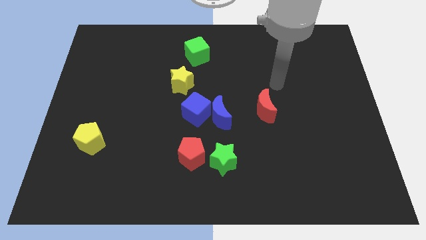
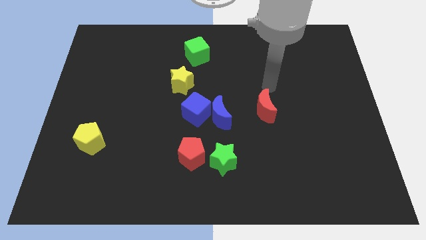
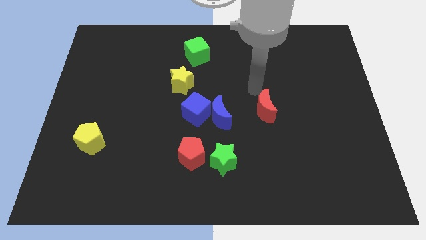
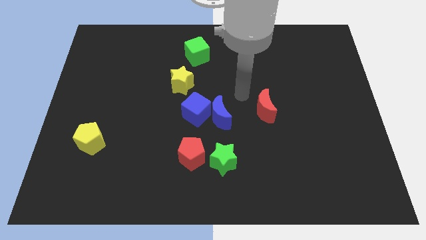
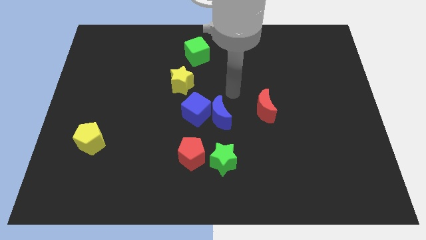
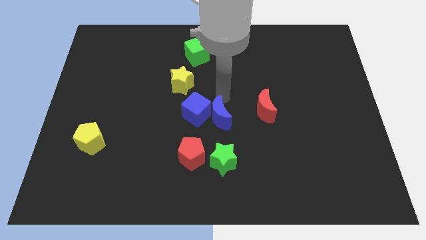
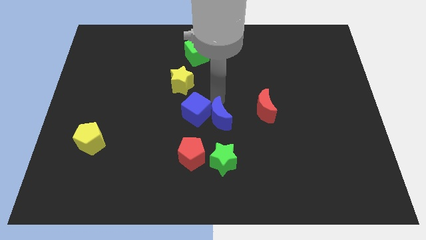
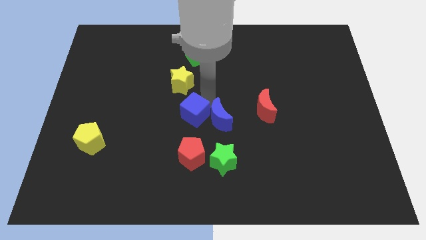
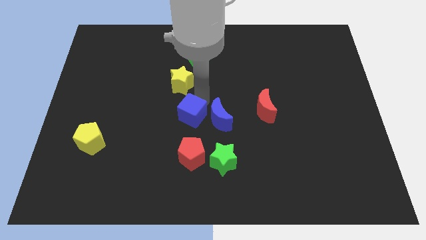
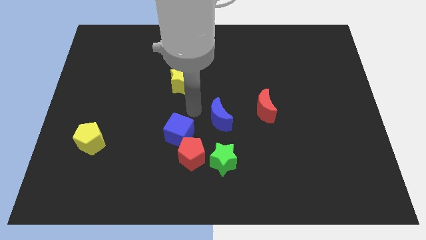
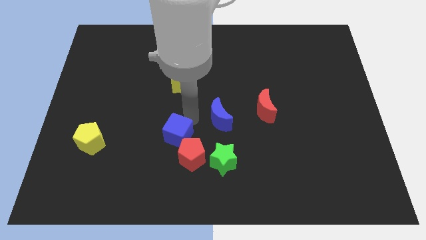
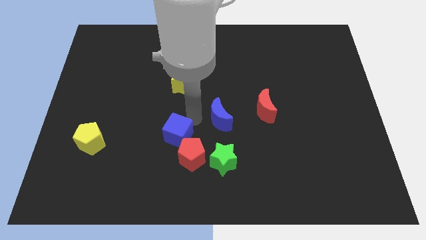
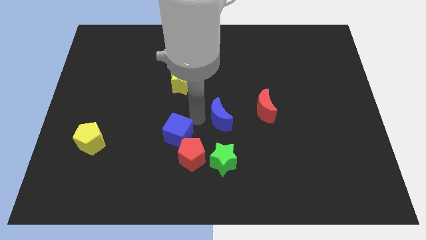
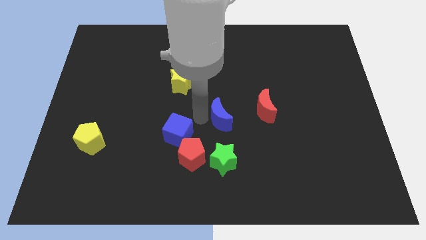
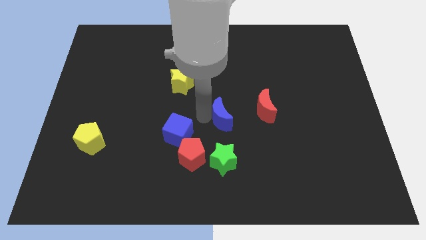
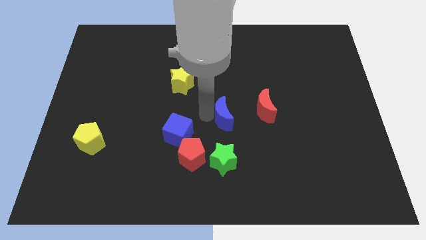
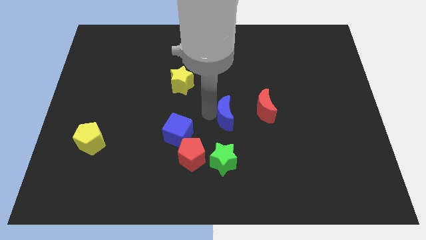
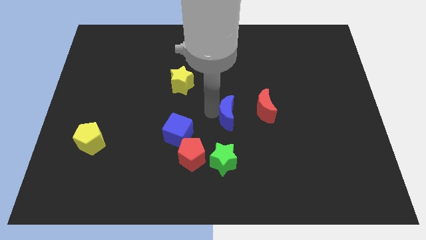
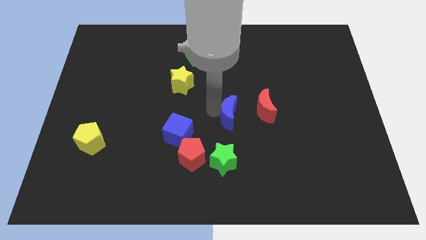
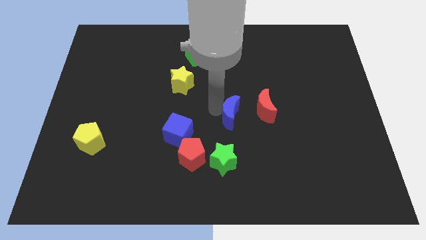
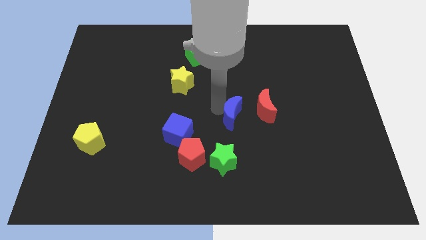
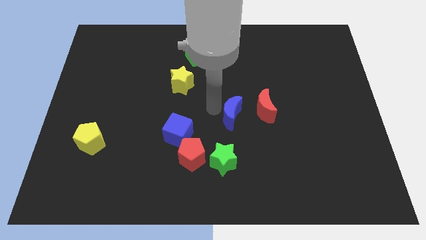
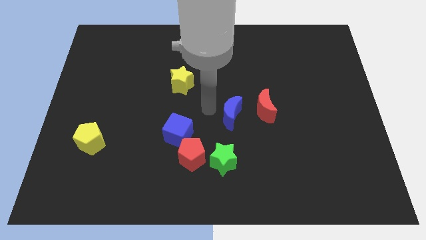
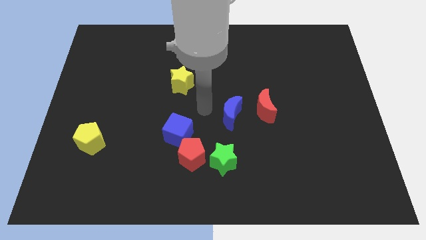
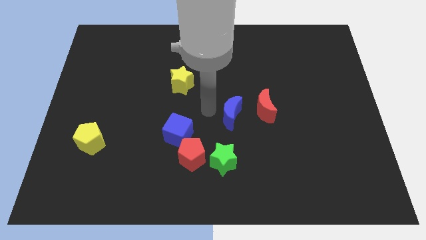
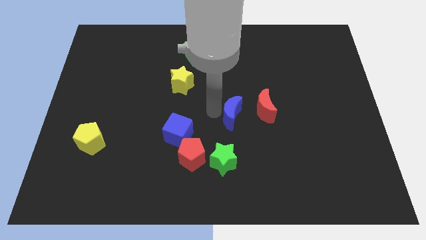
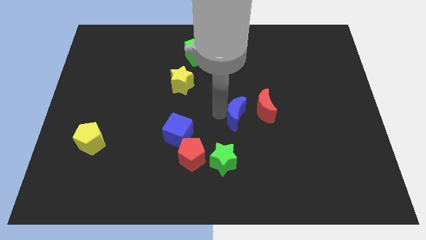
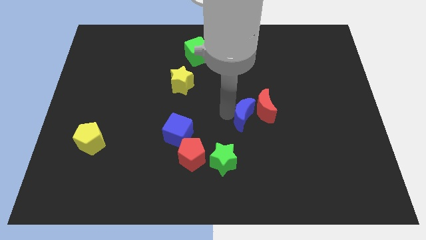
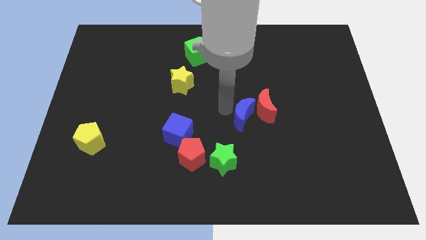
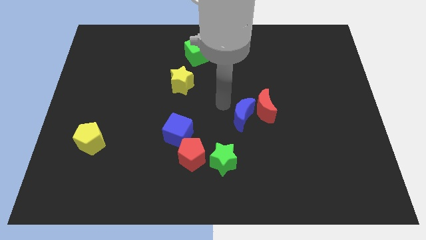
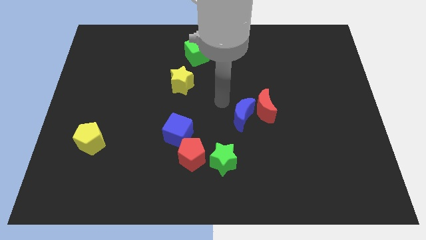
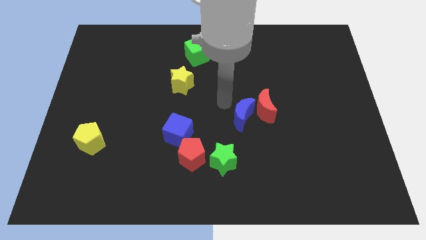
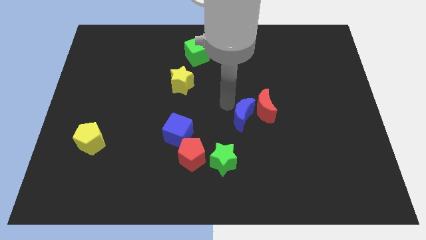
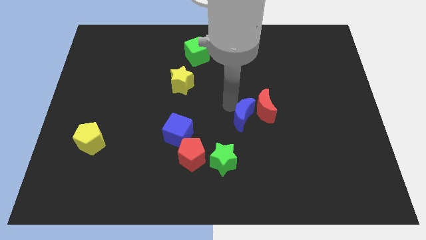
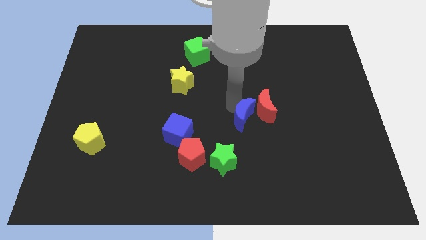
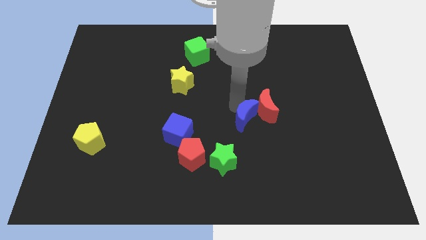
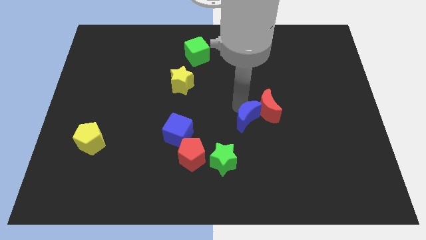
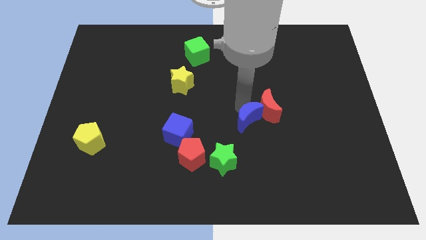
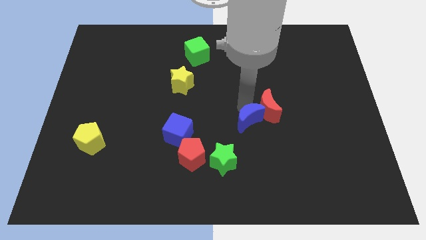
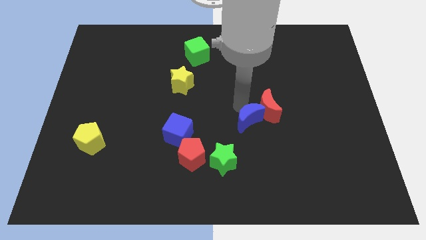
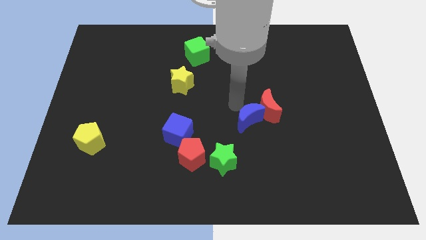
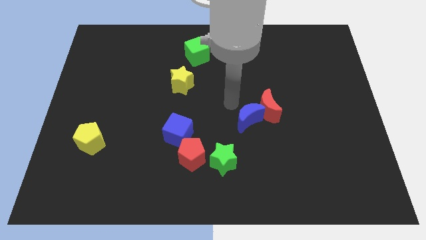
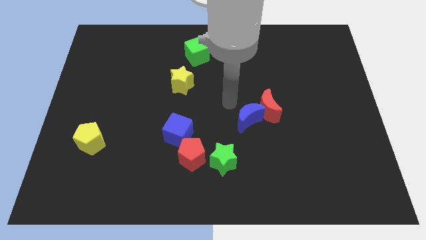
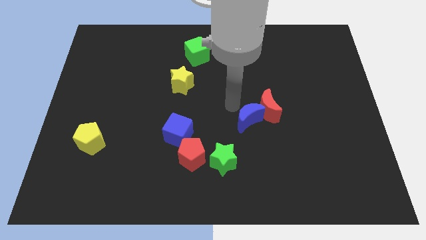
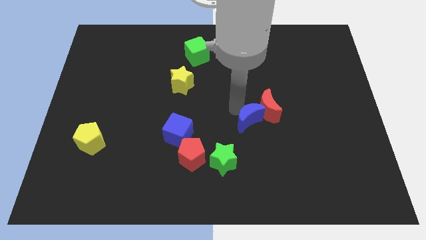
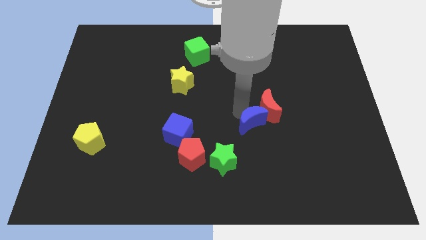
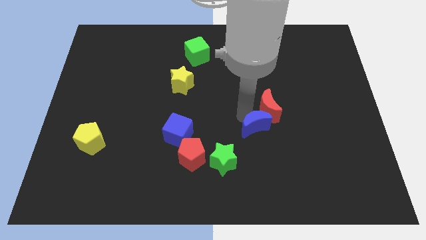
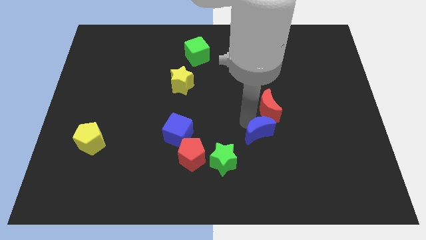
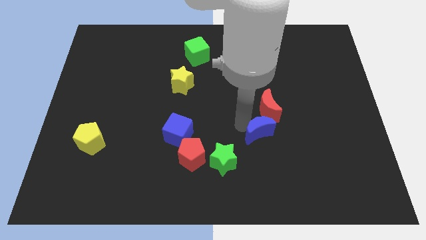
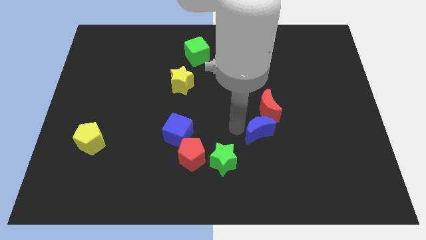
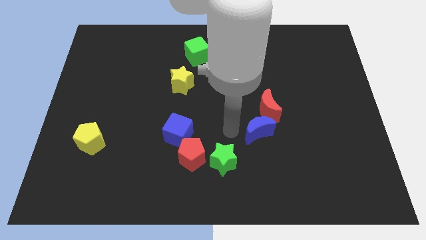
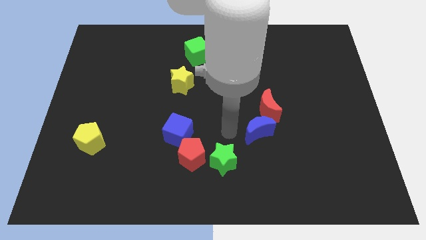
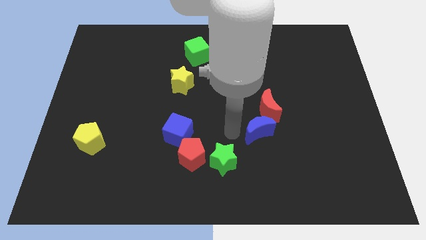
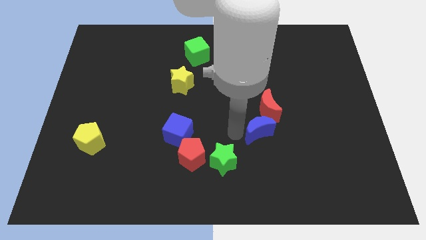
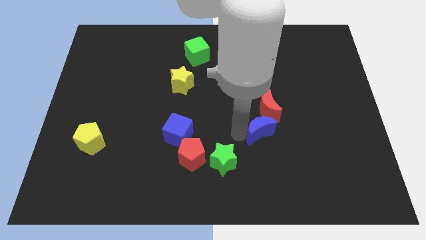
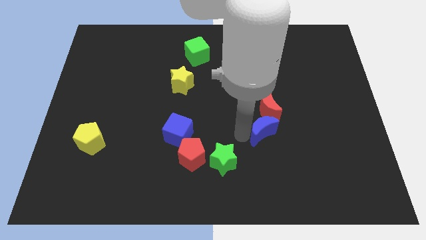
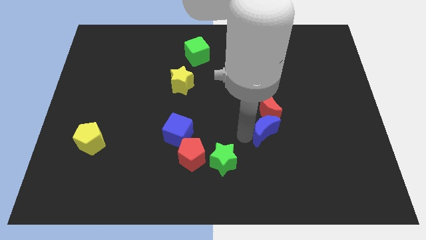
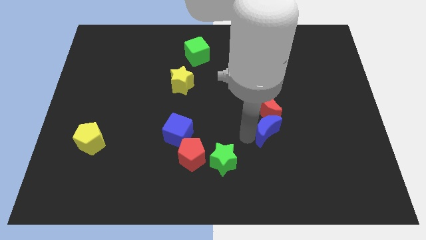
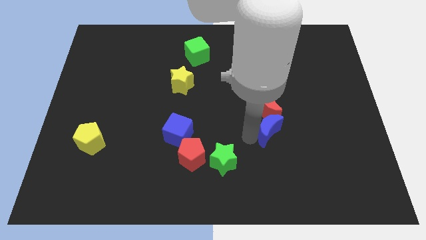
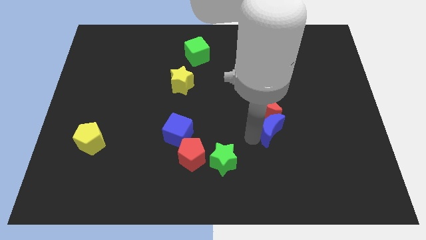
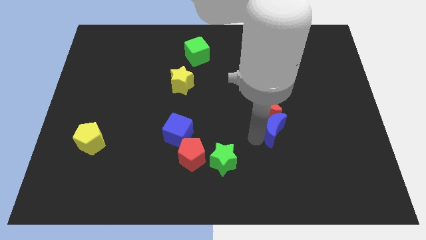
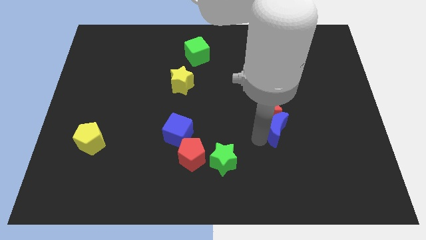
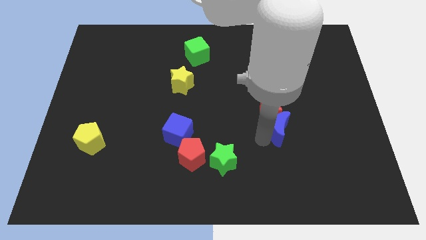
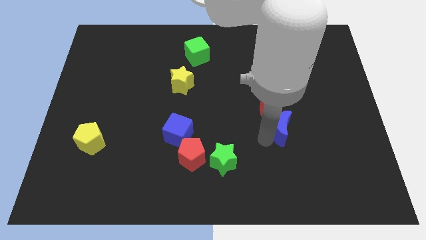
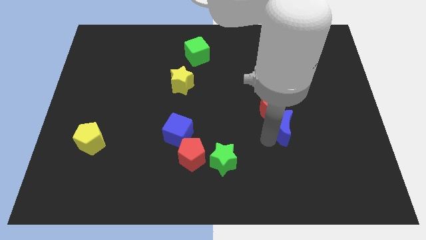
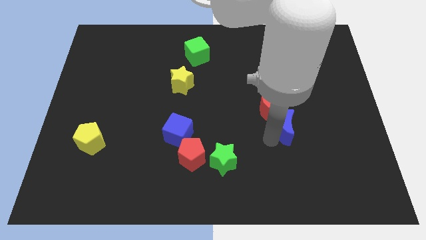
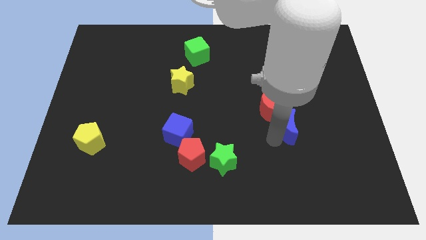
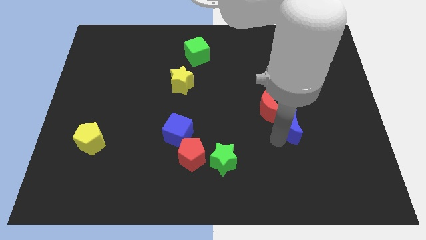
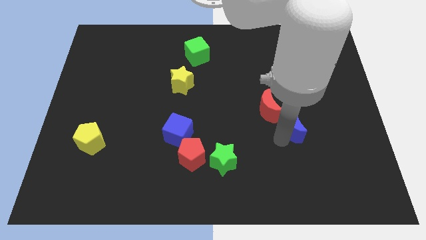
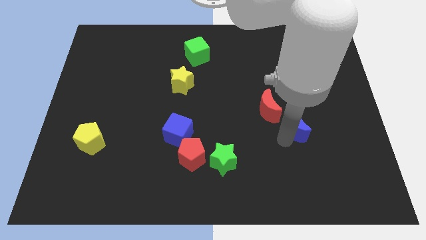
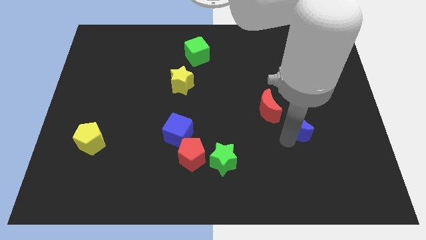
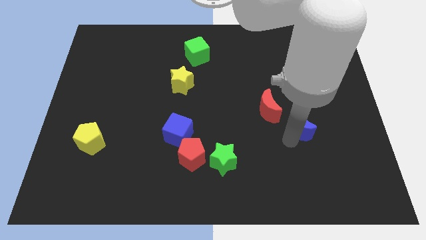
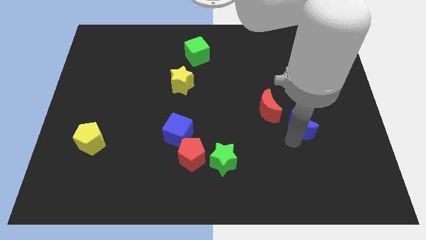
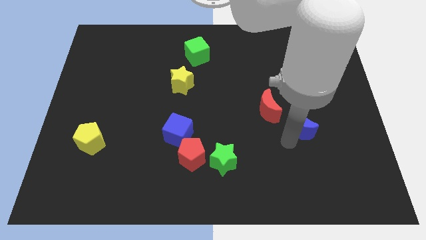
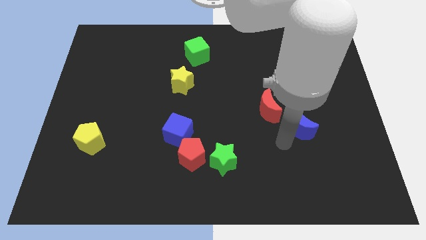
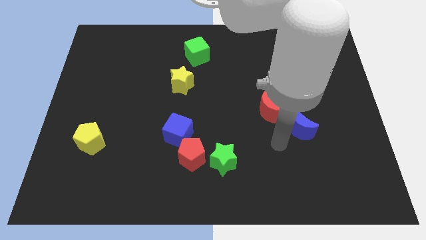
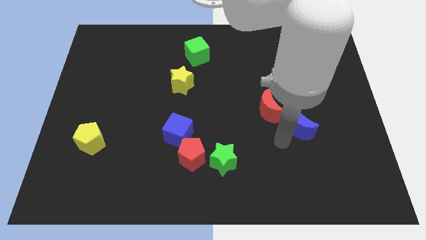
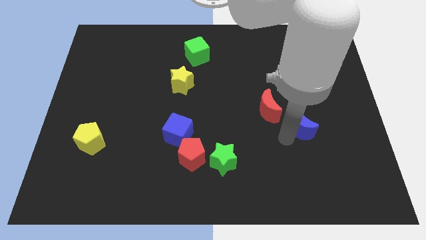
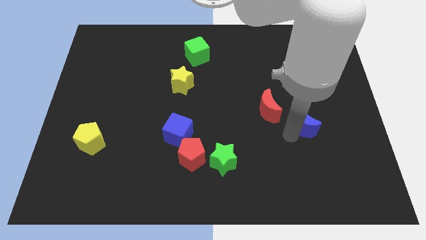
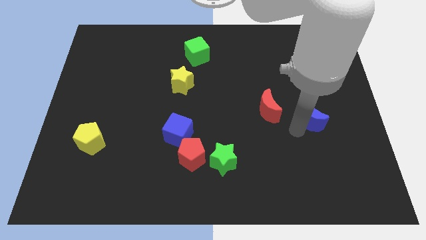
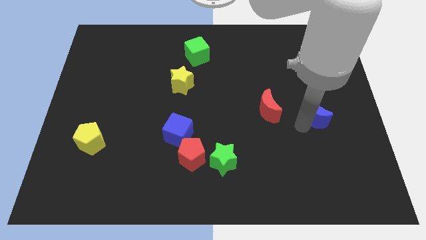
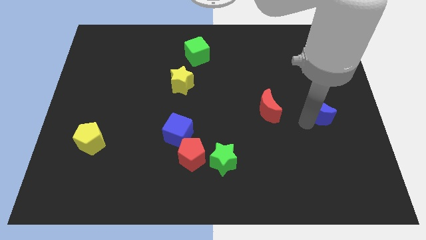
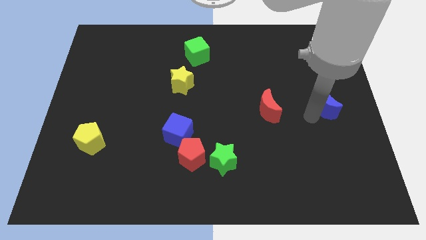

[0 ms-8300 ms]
move the blue moon to the right side
